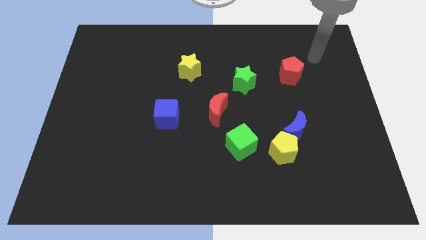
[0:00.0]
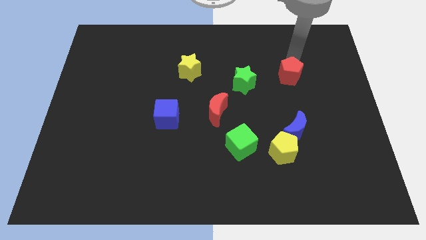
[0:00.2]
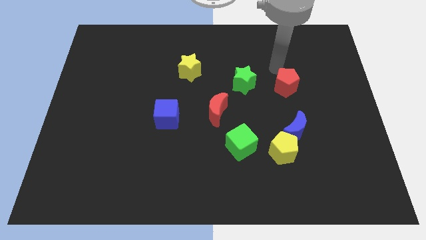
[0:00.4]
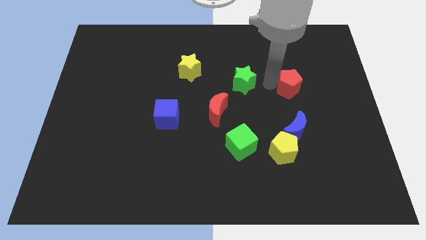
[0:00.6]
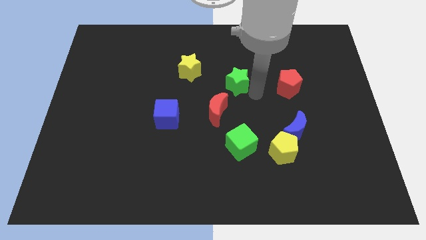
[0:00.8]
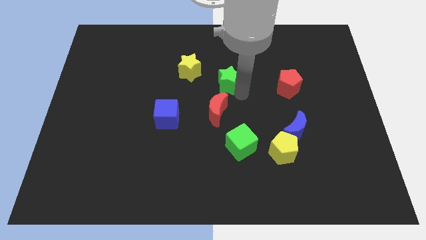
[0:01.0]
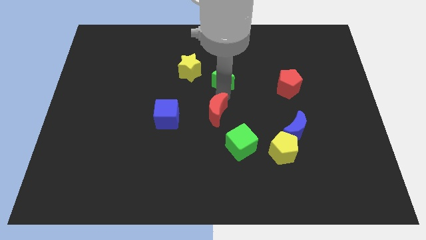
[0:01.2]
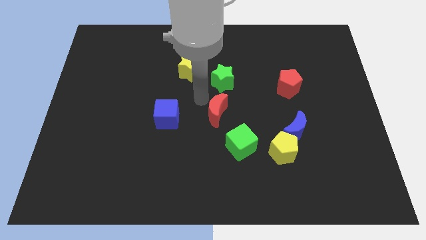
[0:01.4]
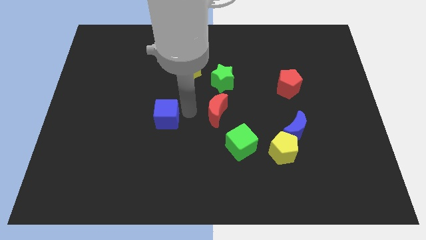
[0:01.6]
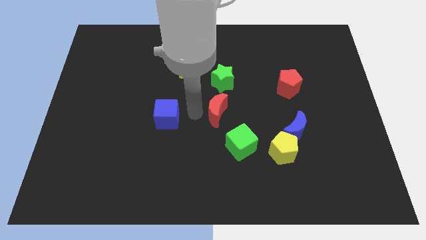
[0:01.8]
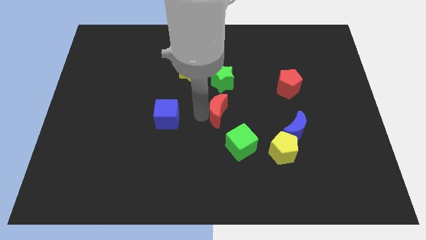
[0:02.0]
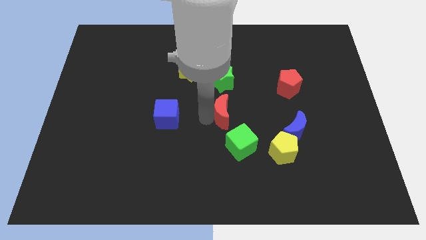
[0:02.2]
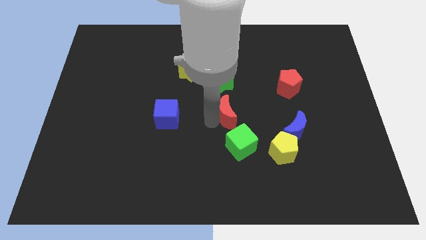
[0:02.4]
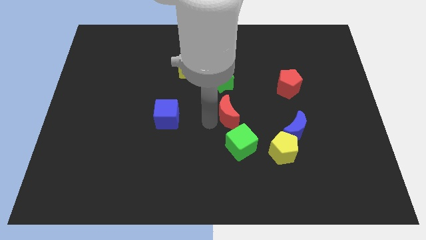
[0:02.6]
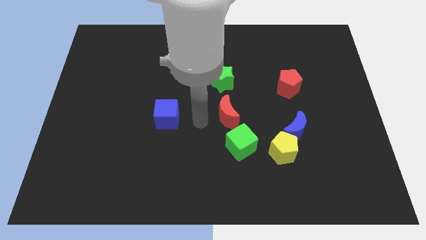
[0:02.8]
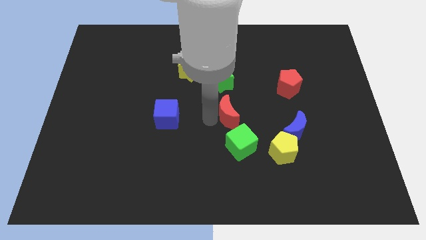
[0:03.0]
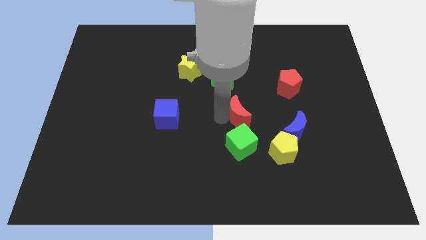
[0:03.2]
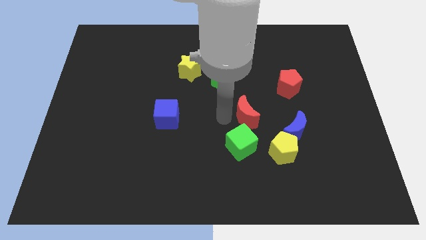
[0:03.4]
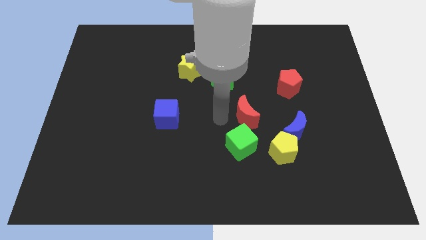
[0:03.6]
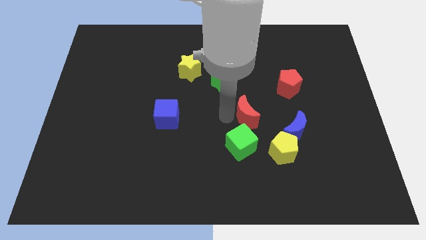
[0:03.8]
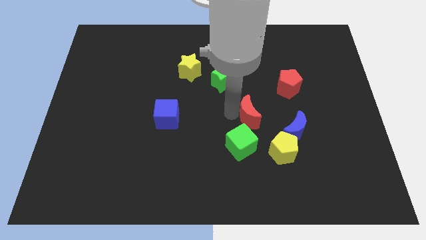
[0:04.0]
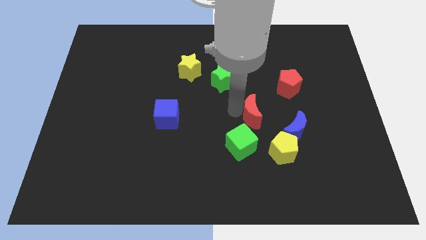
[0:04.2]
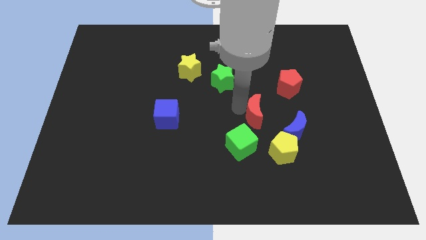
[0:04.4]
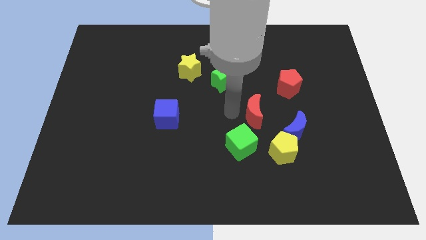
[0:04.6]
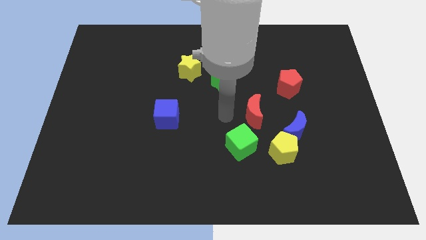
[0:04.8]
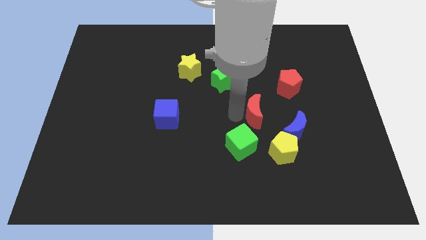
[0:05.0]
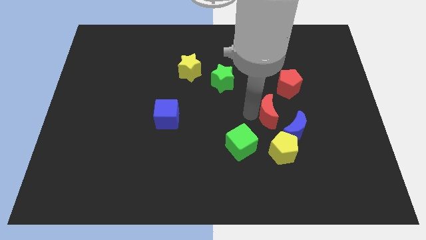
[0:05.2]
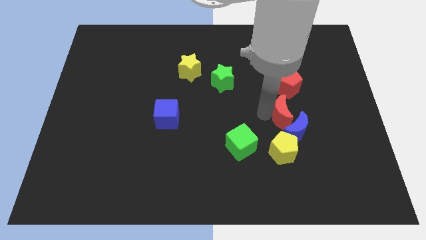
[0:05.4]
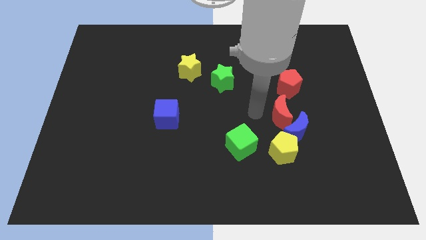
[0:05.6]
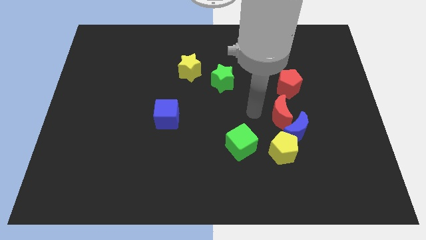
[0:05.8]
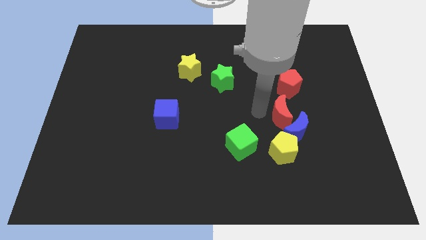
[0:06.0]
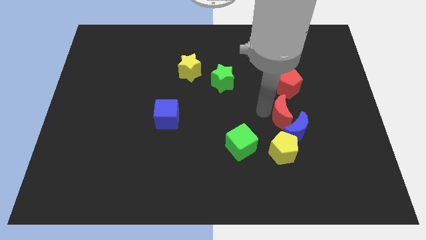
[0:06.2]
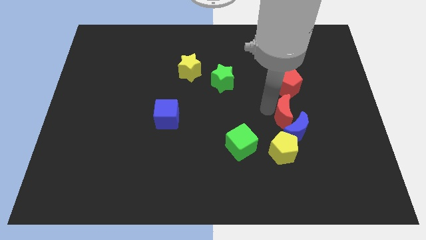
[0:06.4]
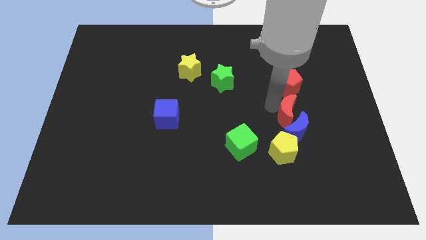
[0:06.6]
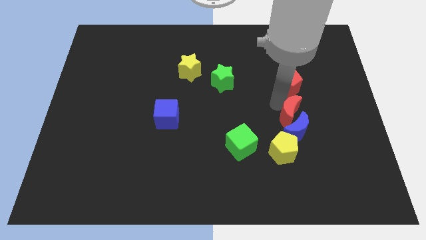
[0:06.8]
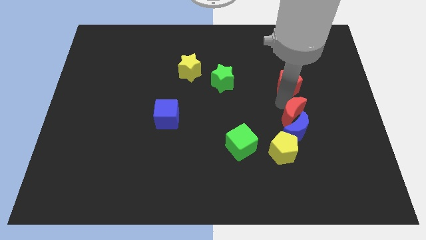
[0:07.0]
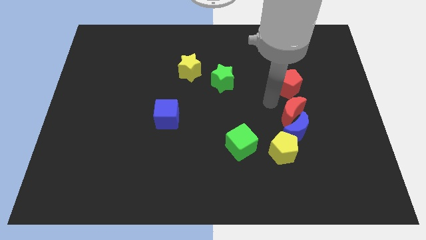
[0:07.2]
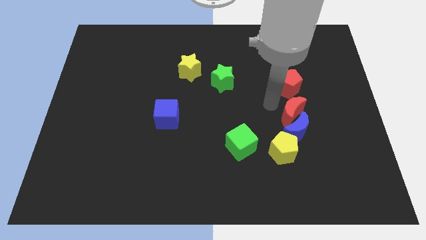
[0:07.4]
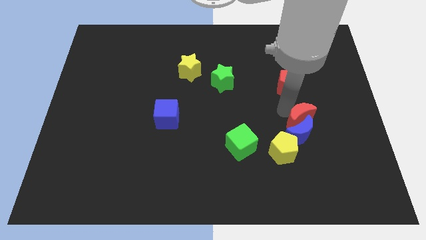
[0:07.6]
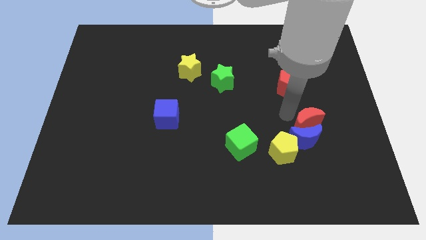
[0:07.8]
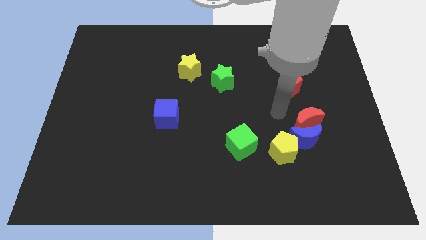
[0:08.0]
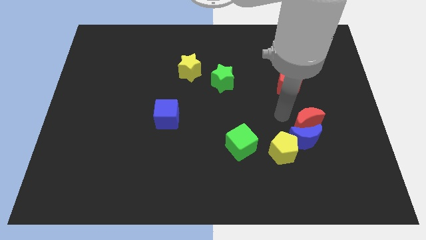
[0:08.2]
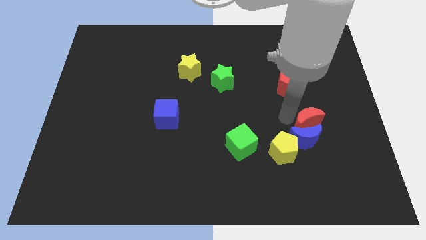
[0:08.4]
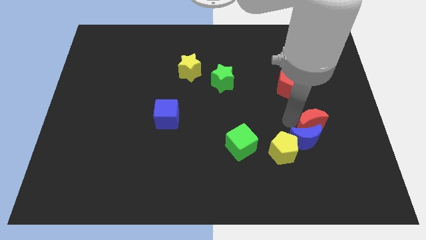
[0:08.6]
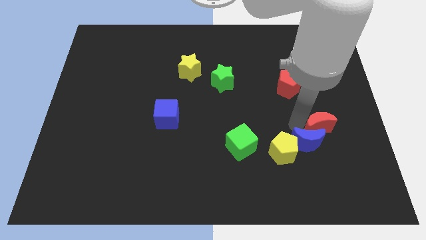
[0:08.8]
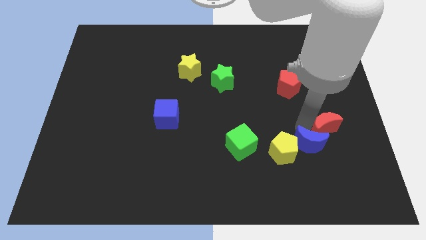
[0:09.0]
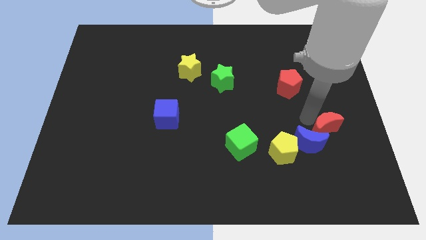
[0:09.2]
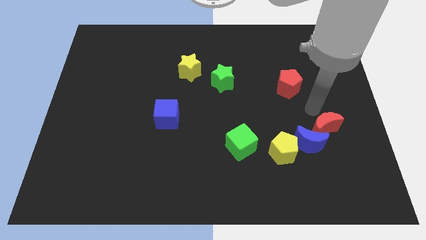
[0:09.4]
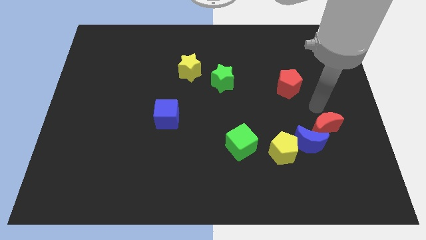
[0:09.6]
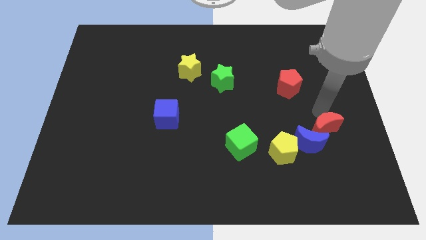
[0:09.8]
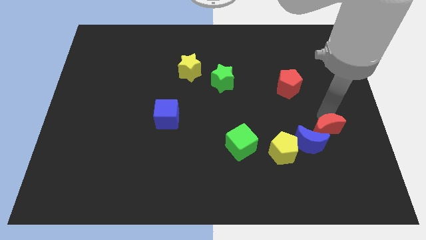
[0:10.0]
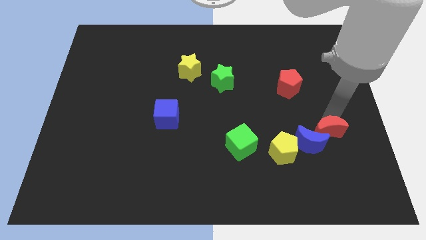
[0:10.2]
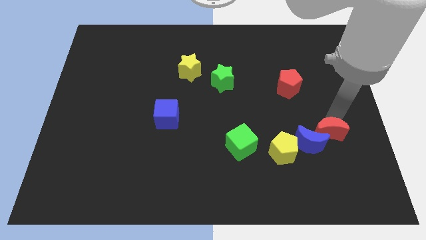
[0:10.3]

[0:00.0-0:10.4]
slide the red moon to the right side of the yellow pentagon

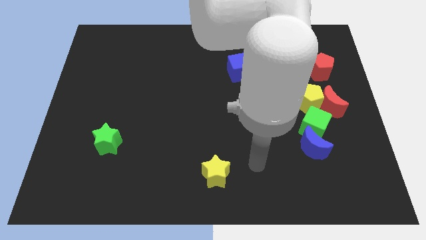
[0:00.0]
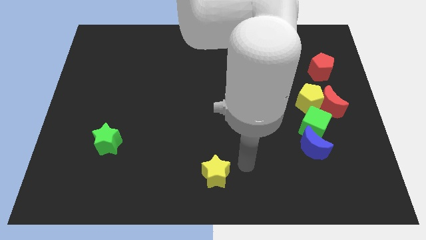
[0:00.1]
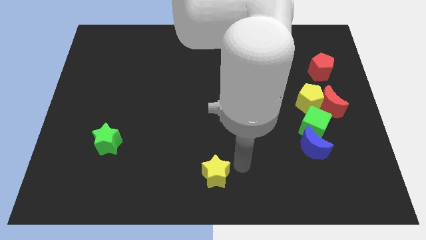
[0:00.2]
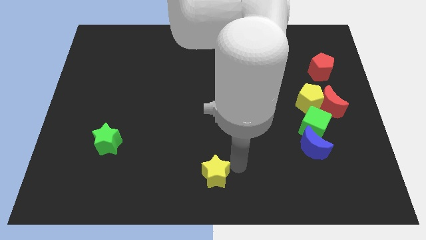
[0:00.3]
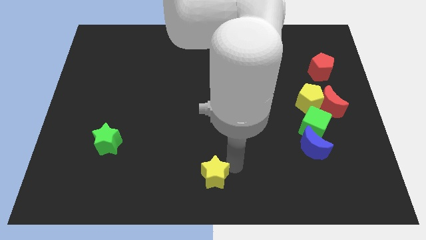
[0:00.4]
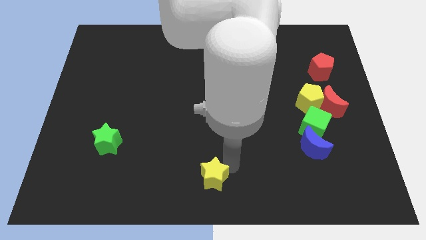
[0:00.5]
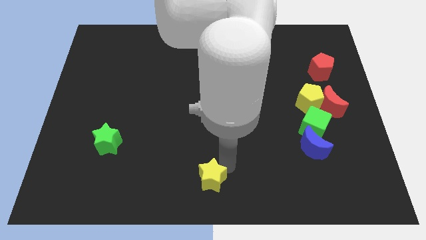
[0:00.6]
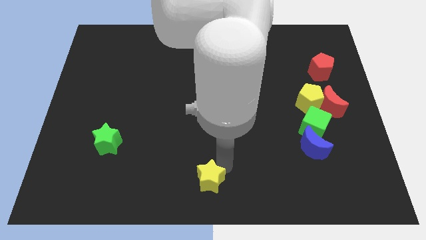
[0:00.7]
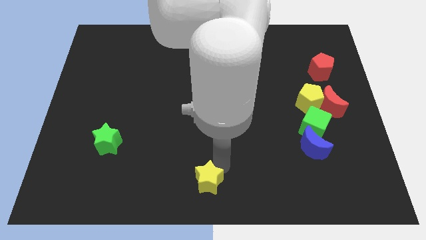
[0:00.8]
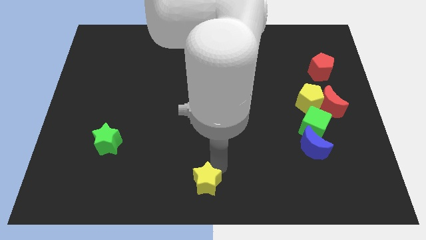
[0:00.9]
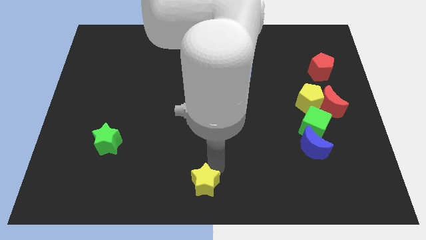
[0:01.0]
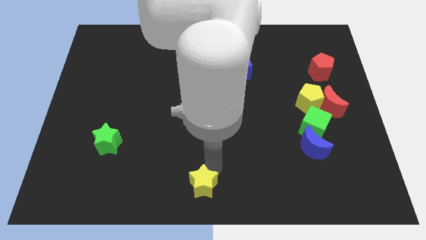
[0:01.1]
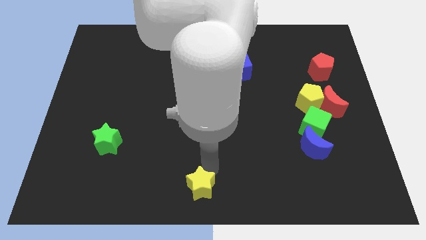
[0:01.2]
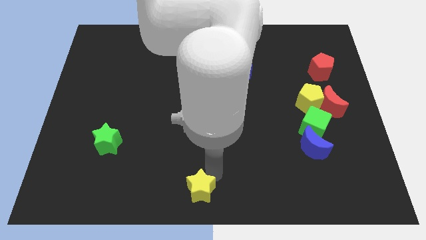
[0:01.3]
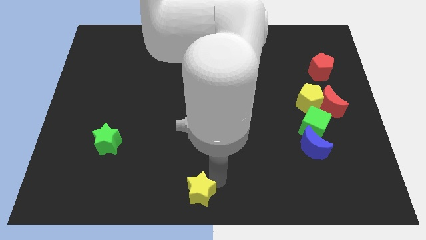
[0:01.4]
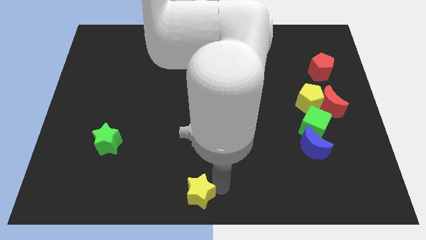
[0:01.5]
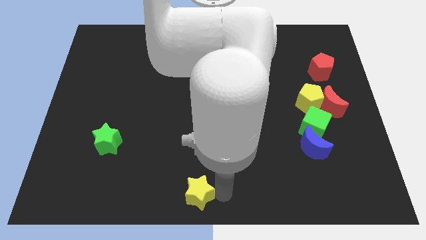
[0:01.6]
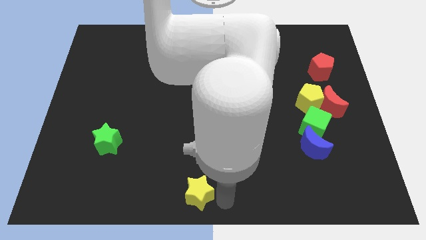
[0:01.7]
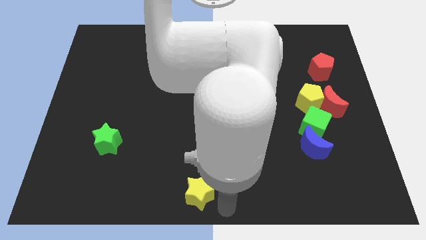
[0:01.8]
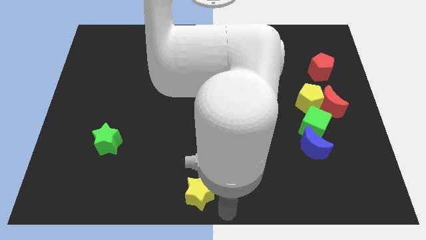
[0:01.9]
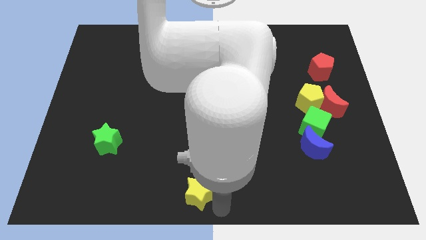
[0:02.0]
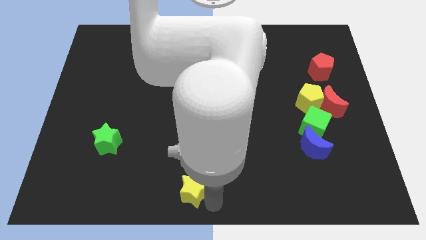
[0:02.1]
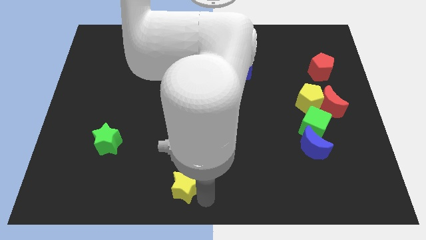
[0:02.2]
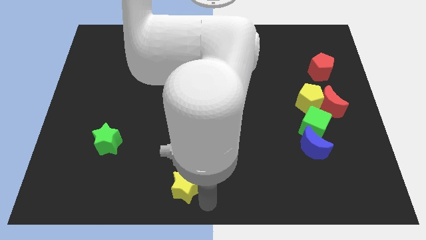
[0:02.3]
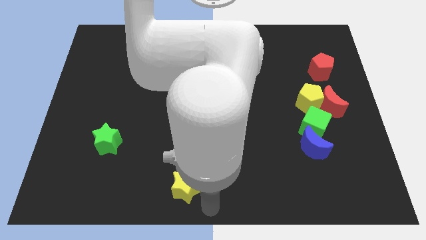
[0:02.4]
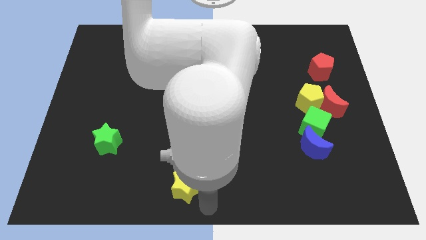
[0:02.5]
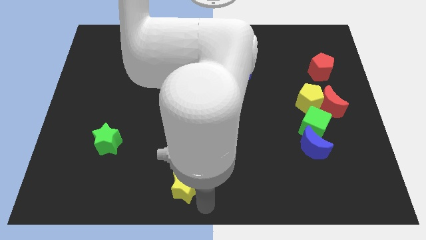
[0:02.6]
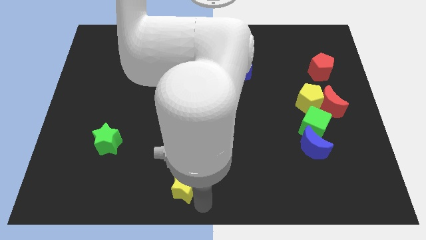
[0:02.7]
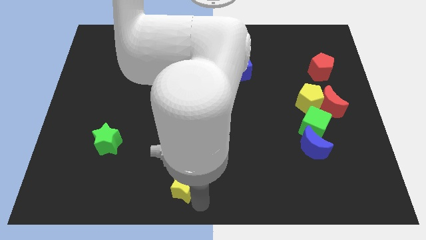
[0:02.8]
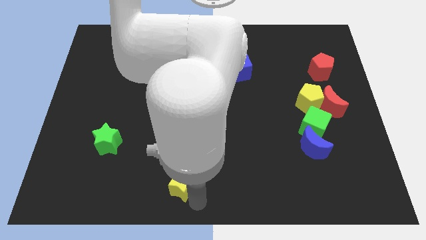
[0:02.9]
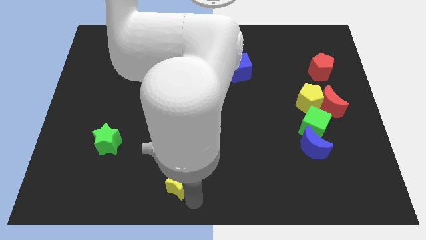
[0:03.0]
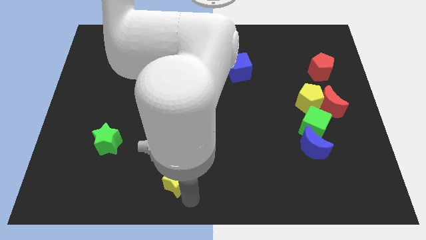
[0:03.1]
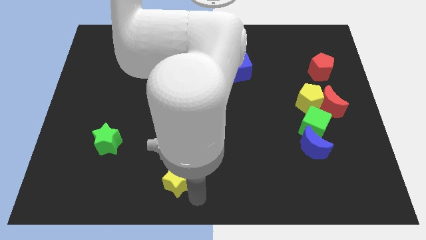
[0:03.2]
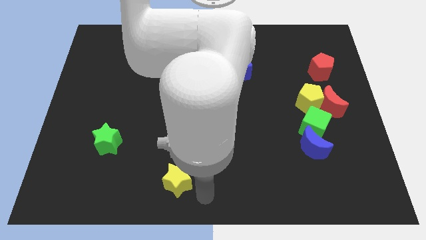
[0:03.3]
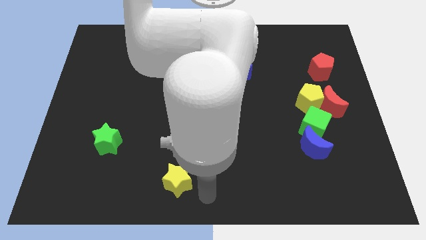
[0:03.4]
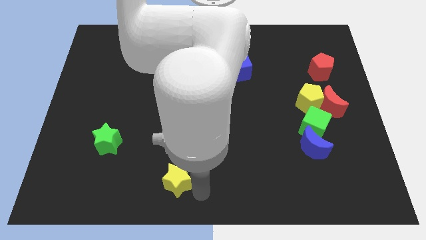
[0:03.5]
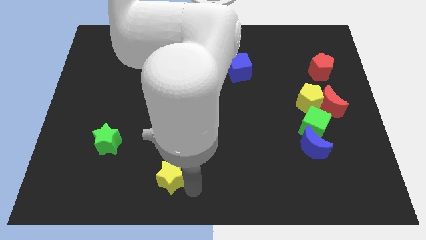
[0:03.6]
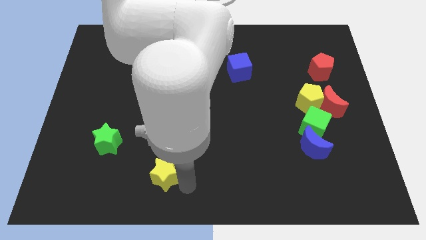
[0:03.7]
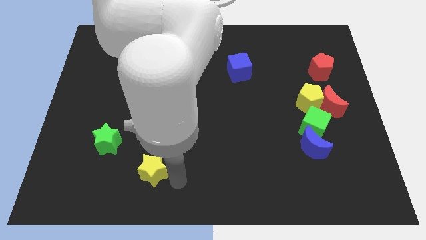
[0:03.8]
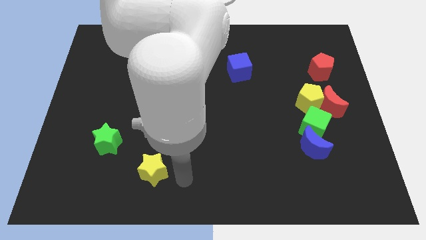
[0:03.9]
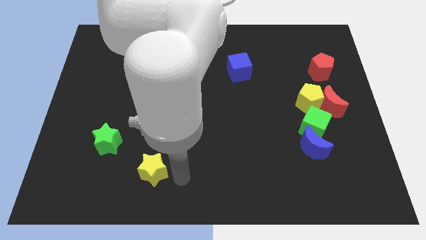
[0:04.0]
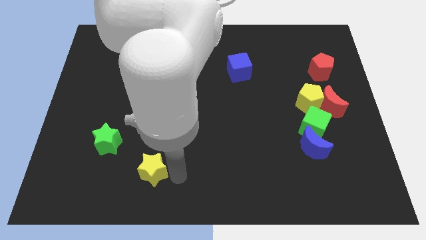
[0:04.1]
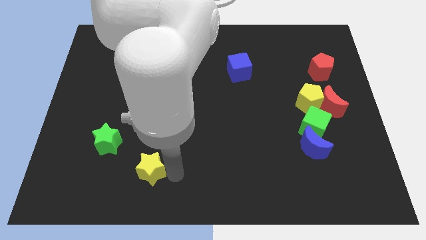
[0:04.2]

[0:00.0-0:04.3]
move the yellow star to the bottom right of the green star
